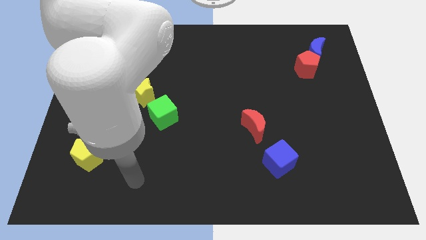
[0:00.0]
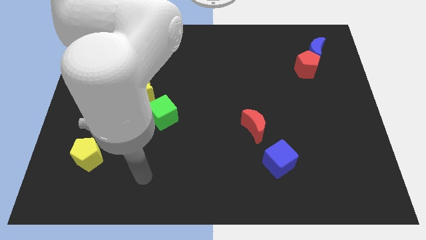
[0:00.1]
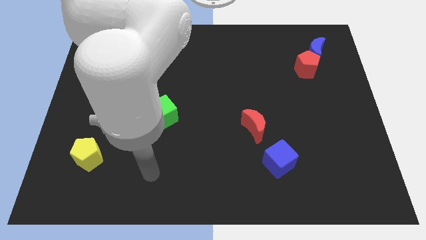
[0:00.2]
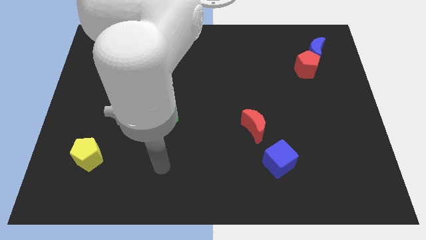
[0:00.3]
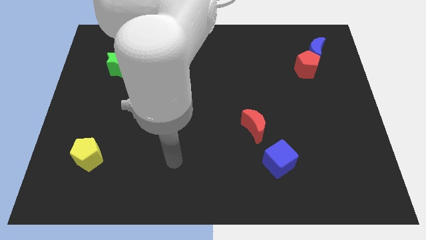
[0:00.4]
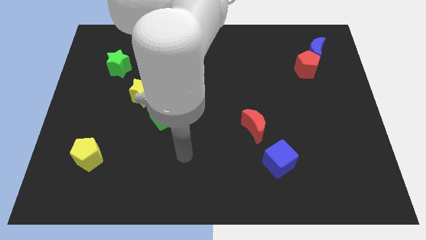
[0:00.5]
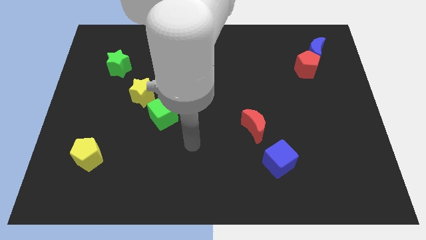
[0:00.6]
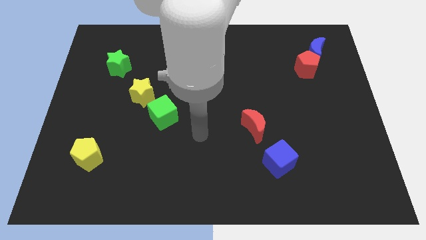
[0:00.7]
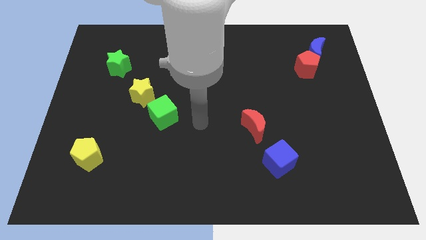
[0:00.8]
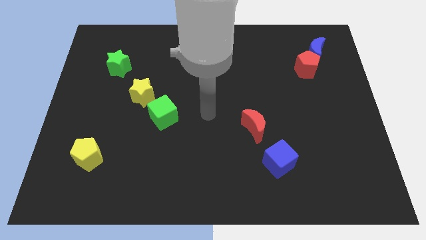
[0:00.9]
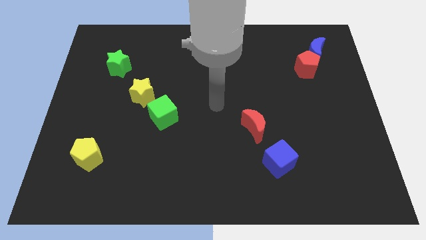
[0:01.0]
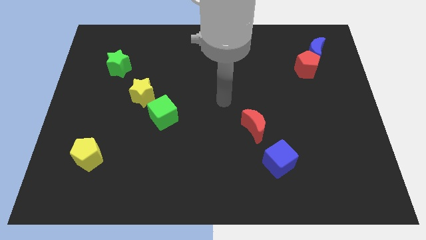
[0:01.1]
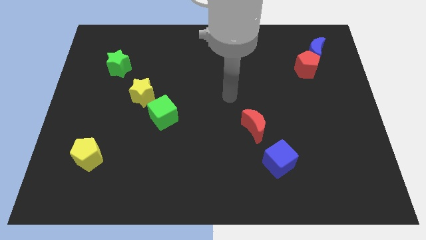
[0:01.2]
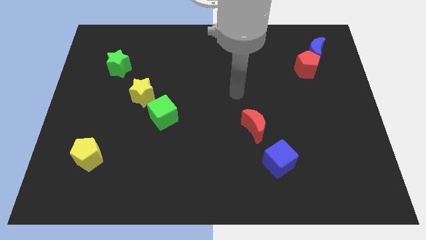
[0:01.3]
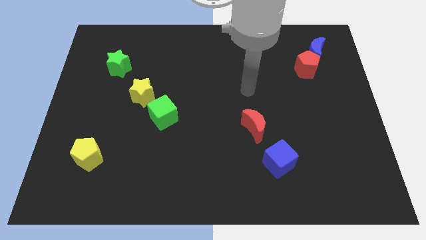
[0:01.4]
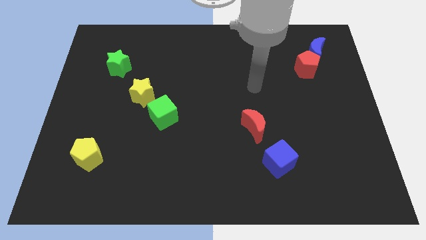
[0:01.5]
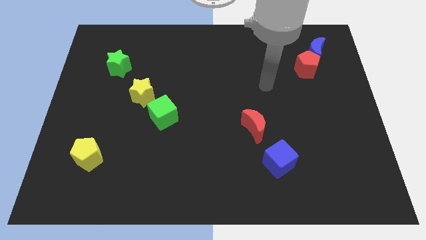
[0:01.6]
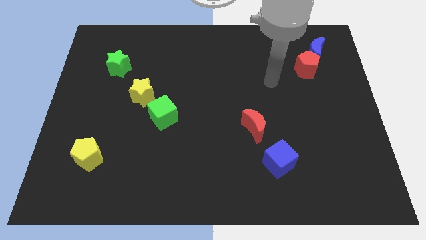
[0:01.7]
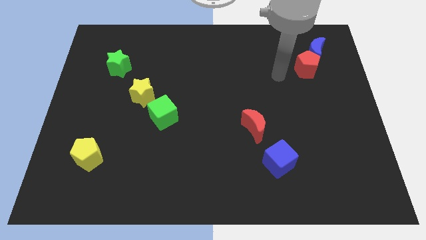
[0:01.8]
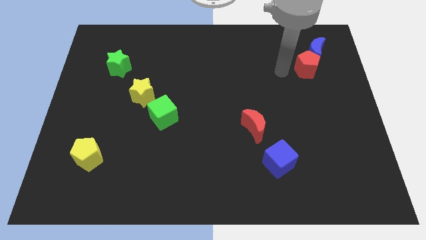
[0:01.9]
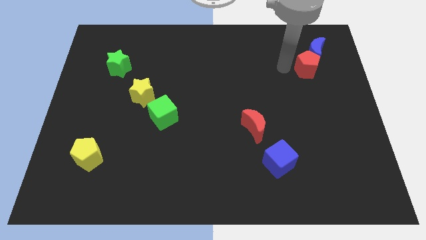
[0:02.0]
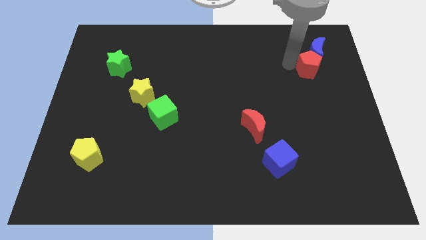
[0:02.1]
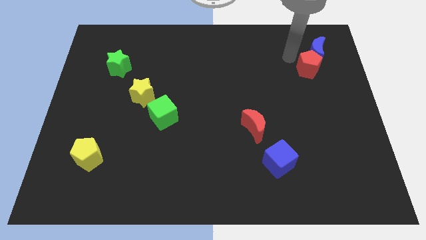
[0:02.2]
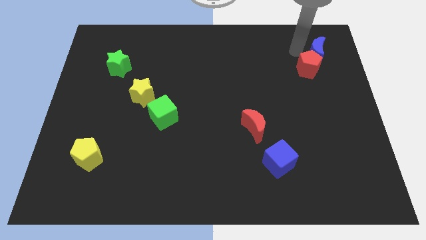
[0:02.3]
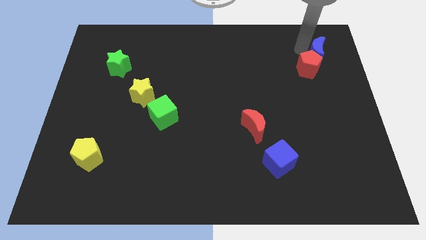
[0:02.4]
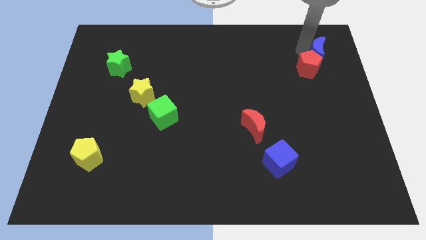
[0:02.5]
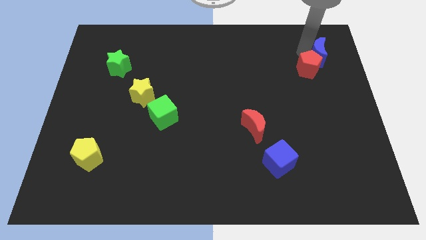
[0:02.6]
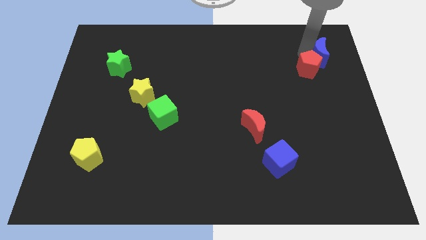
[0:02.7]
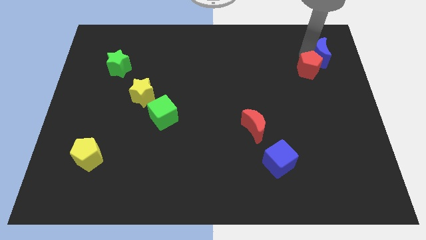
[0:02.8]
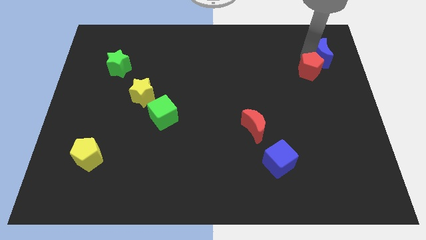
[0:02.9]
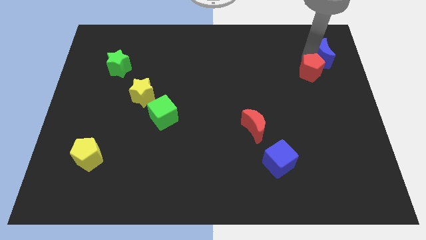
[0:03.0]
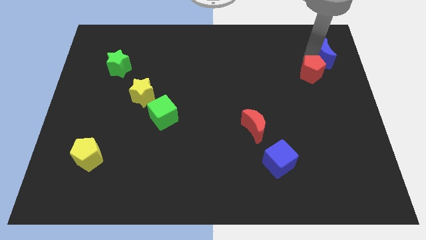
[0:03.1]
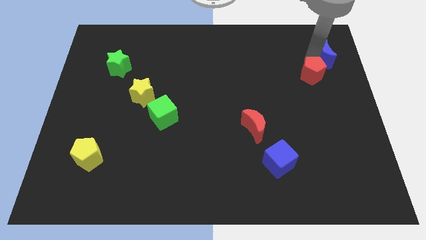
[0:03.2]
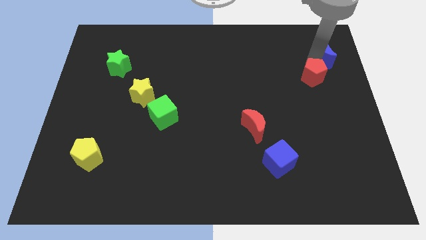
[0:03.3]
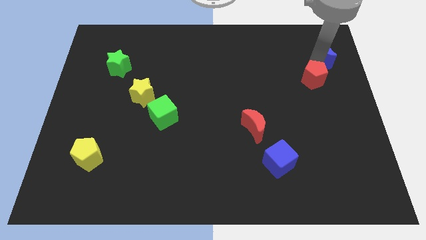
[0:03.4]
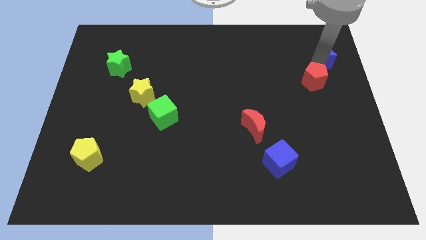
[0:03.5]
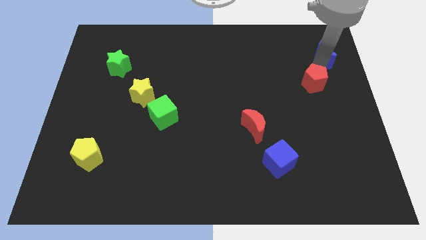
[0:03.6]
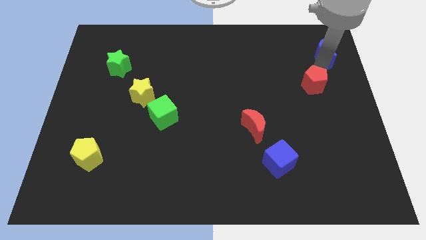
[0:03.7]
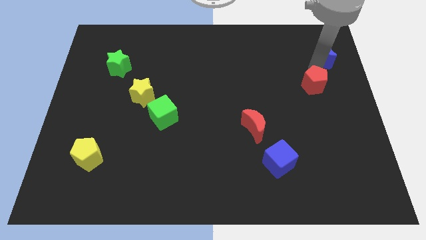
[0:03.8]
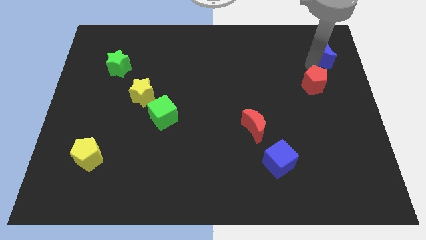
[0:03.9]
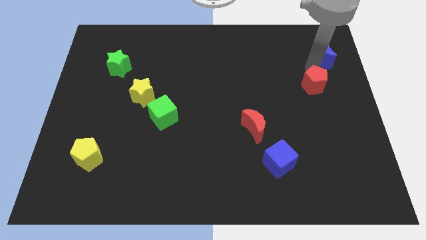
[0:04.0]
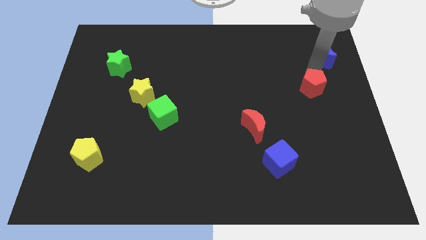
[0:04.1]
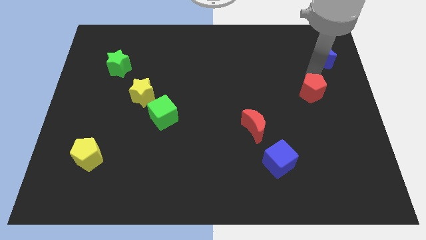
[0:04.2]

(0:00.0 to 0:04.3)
slide the red pentagon downwards somewhat

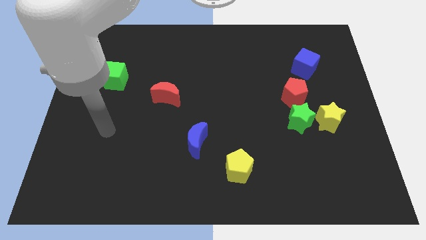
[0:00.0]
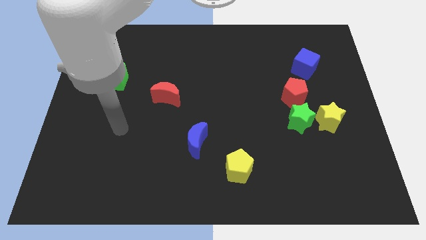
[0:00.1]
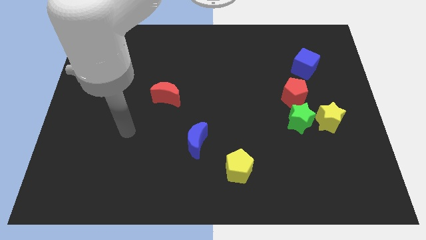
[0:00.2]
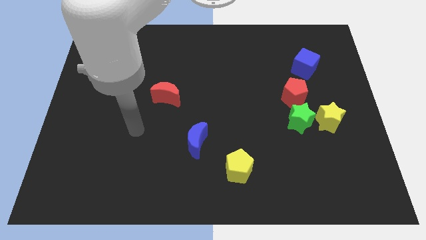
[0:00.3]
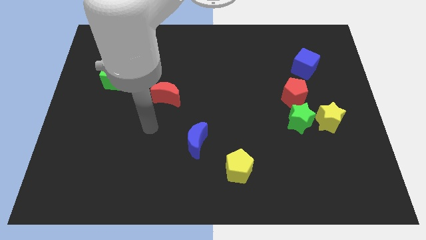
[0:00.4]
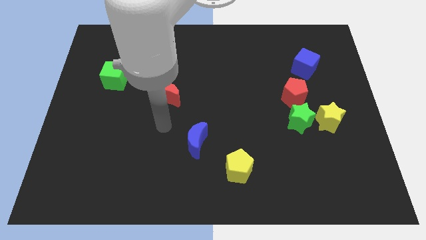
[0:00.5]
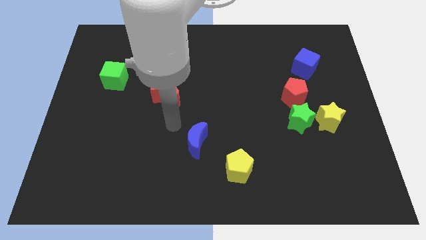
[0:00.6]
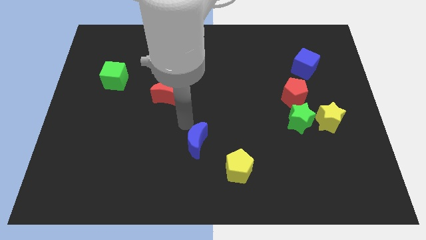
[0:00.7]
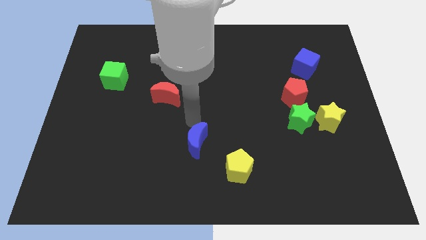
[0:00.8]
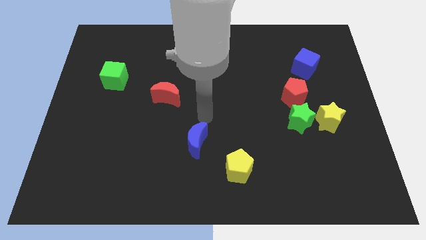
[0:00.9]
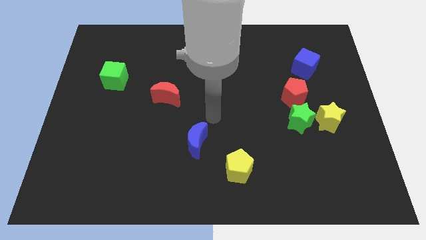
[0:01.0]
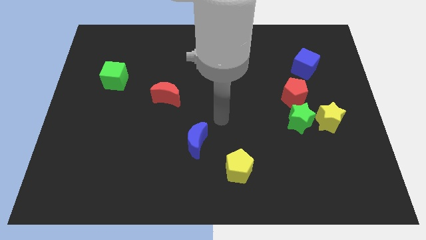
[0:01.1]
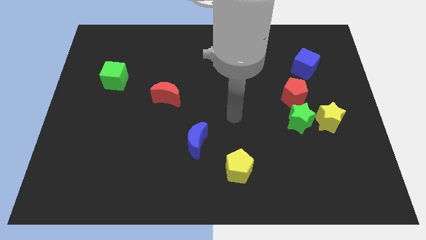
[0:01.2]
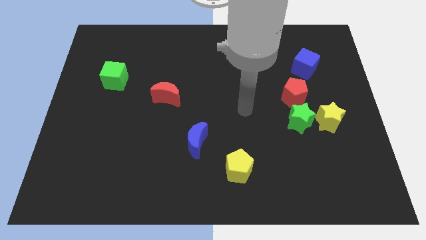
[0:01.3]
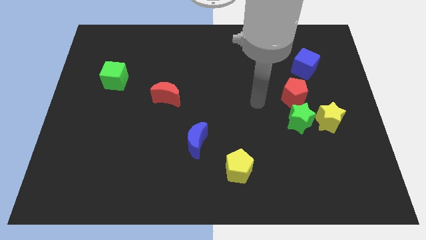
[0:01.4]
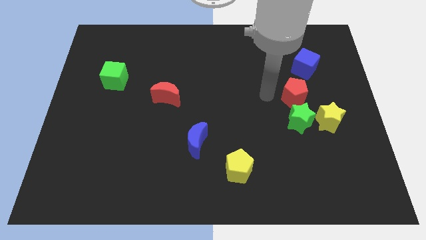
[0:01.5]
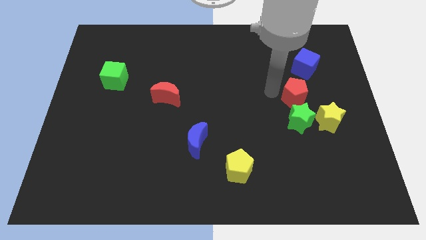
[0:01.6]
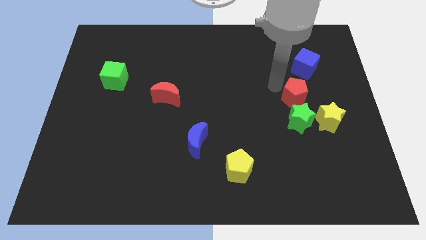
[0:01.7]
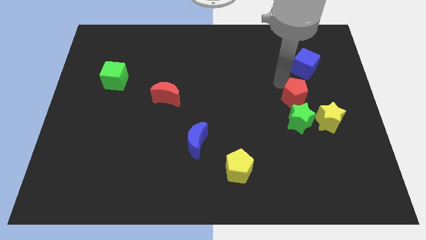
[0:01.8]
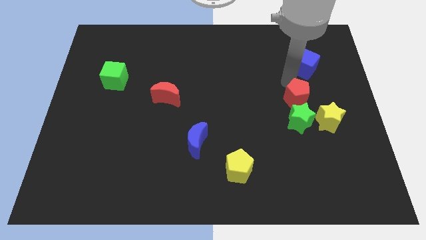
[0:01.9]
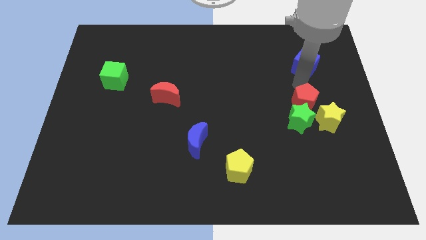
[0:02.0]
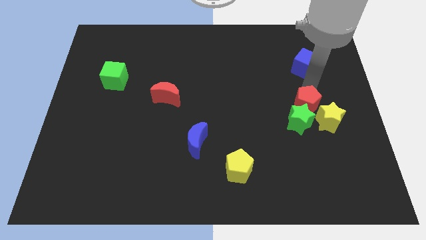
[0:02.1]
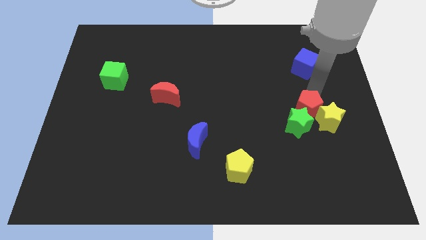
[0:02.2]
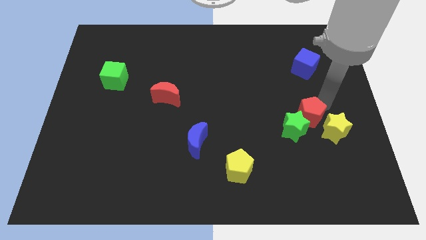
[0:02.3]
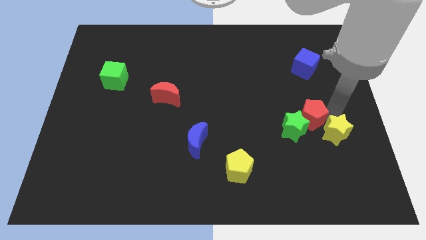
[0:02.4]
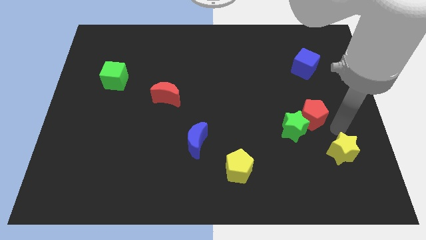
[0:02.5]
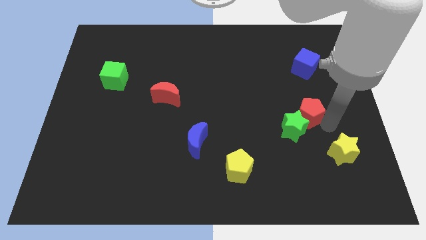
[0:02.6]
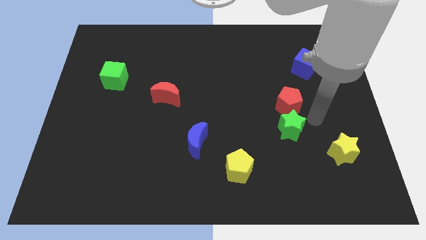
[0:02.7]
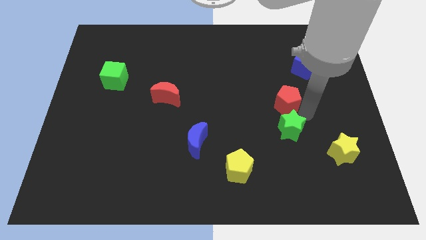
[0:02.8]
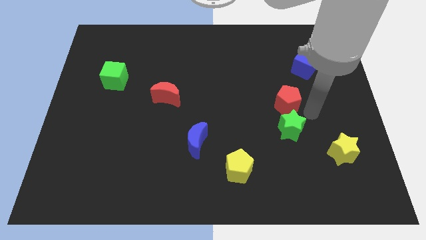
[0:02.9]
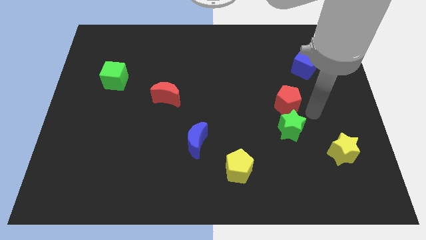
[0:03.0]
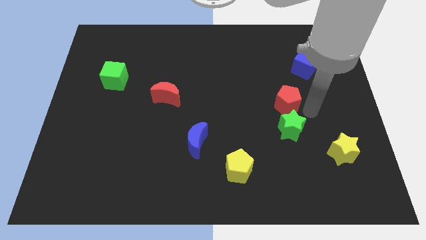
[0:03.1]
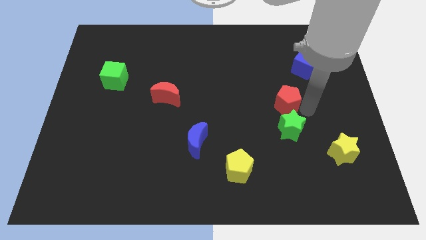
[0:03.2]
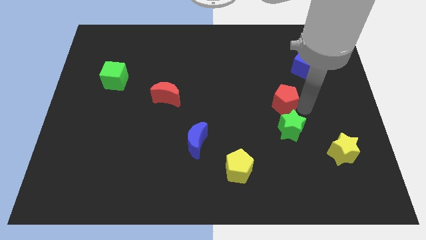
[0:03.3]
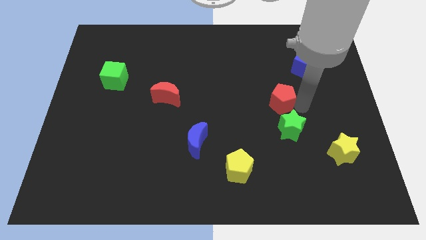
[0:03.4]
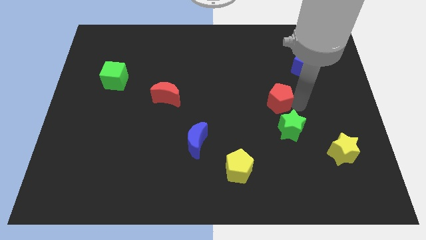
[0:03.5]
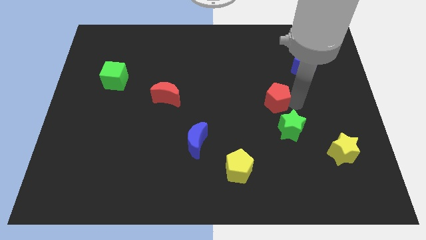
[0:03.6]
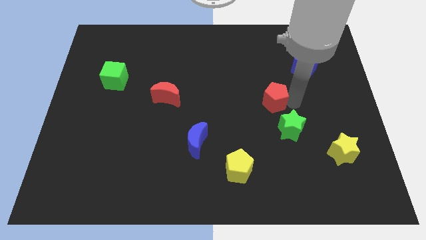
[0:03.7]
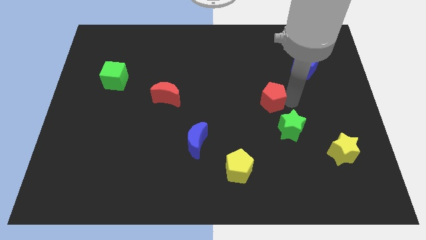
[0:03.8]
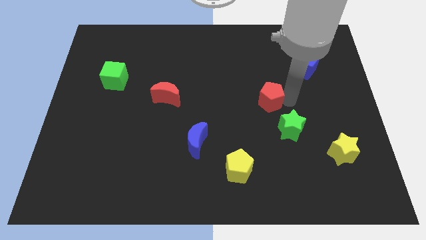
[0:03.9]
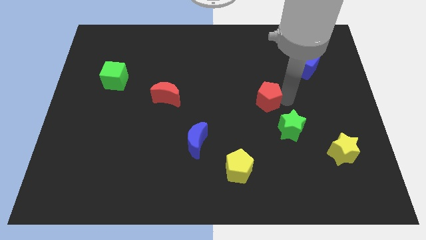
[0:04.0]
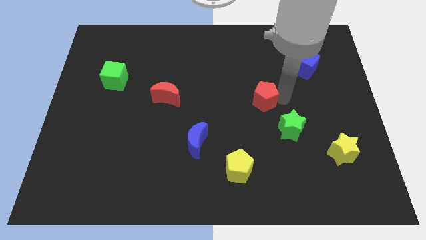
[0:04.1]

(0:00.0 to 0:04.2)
slightly push the red pentagon left
